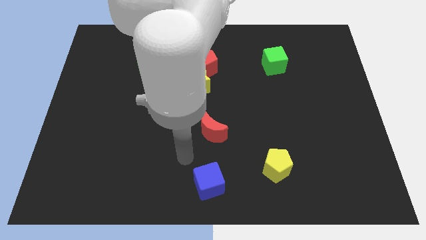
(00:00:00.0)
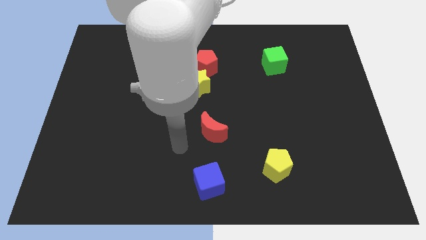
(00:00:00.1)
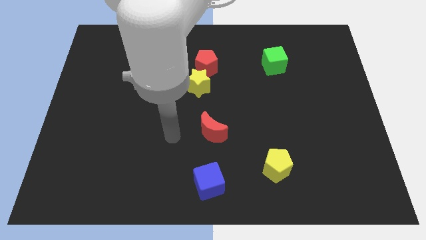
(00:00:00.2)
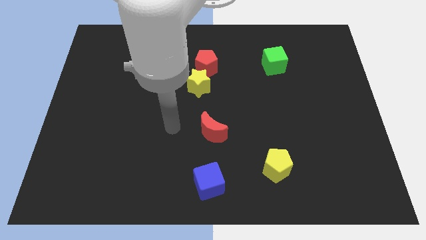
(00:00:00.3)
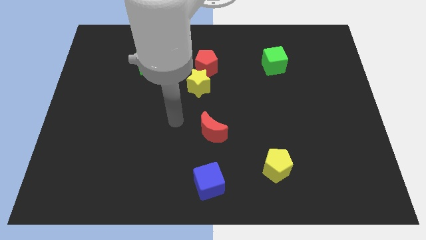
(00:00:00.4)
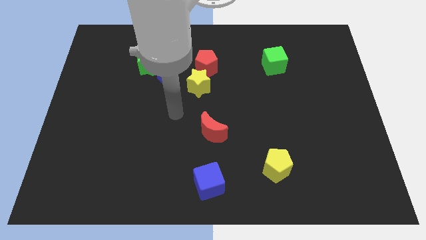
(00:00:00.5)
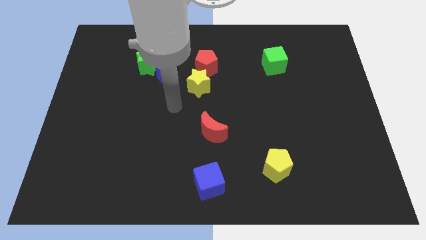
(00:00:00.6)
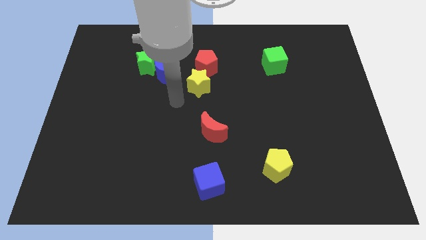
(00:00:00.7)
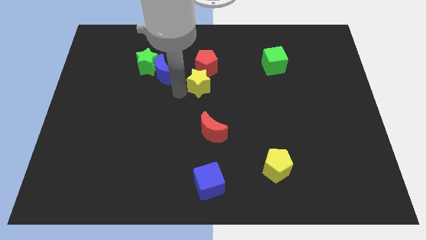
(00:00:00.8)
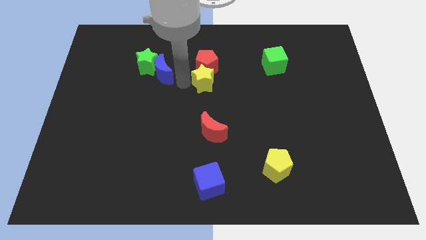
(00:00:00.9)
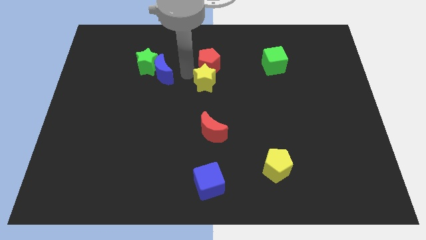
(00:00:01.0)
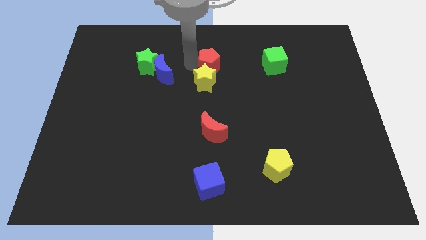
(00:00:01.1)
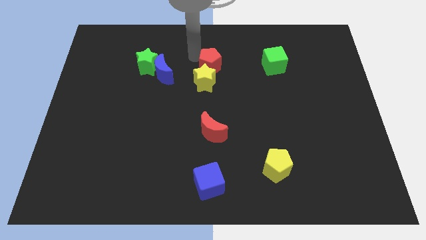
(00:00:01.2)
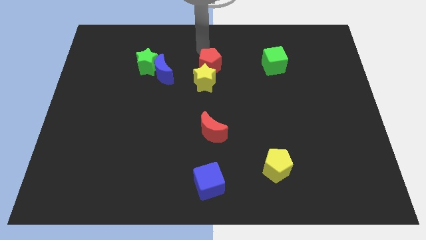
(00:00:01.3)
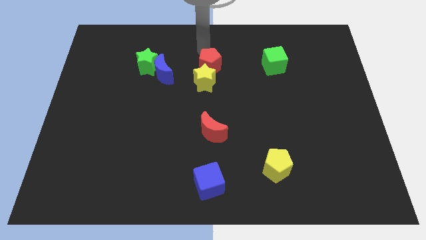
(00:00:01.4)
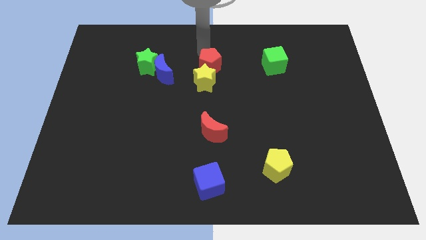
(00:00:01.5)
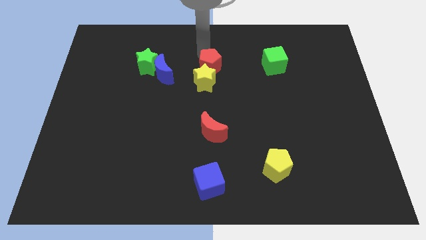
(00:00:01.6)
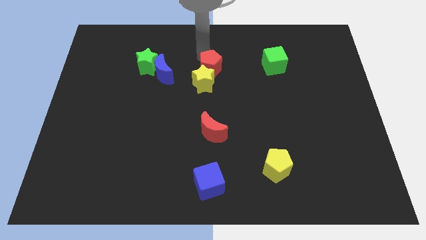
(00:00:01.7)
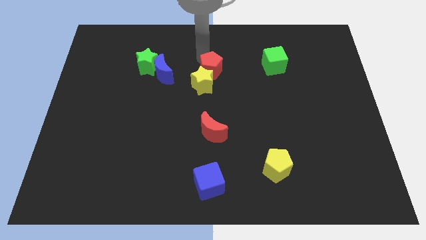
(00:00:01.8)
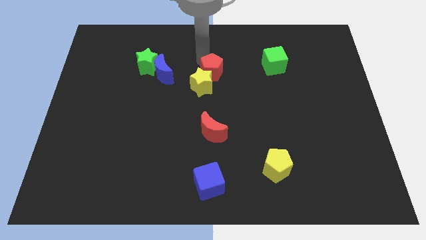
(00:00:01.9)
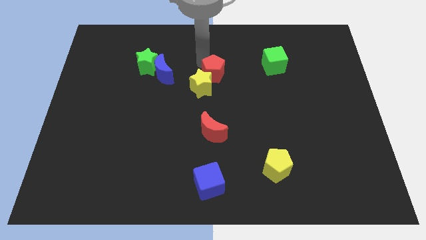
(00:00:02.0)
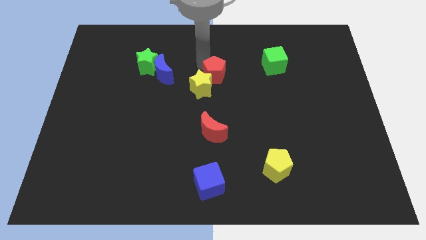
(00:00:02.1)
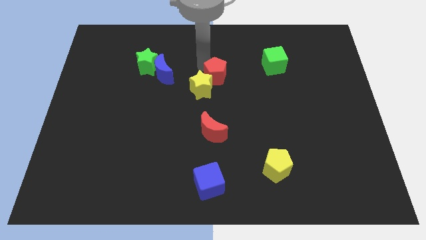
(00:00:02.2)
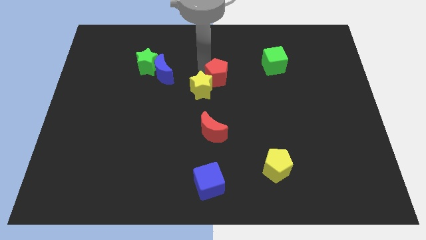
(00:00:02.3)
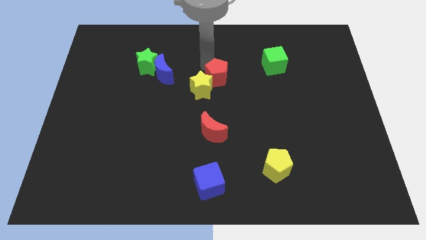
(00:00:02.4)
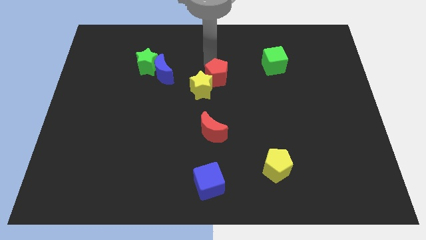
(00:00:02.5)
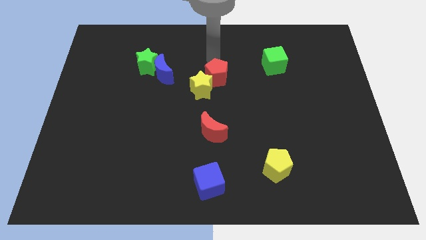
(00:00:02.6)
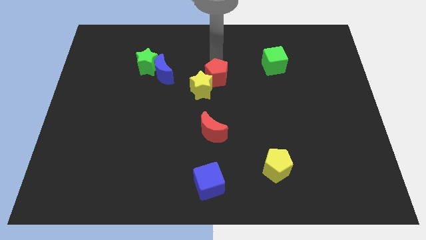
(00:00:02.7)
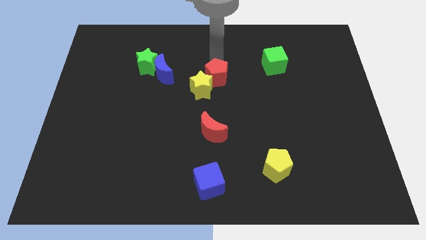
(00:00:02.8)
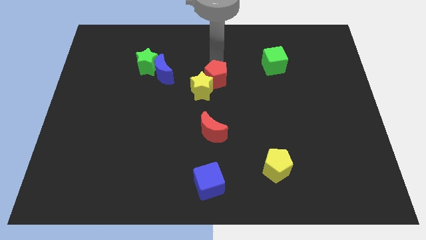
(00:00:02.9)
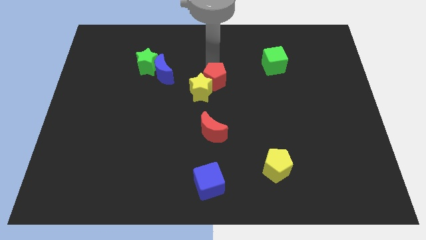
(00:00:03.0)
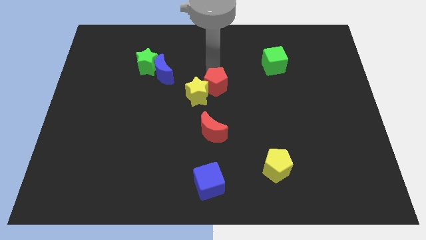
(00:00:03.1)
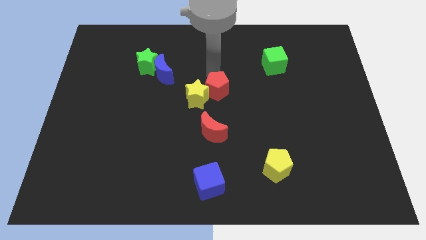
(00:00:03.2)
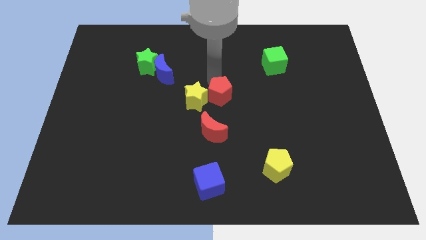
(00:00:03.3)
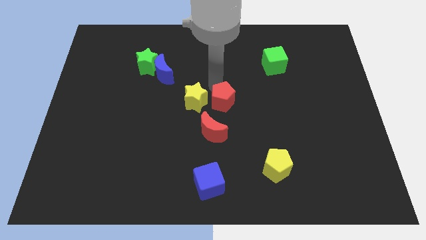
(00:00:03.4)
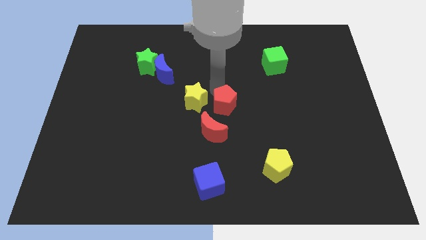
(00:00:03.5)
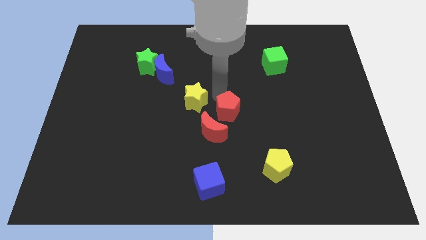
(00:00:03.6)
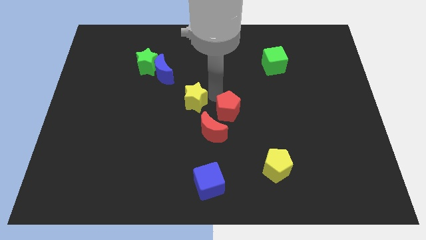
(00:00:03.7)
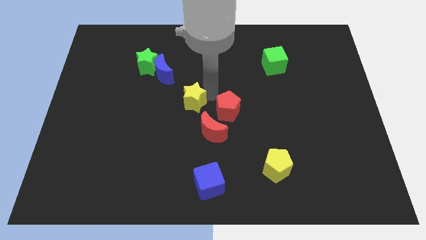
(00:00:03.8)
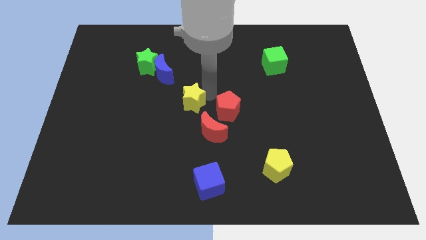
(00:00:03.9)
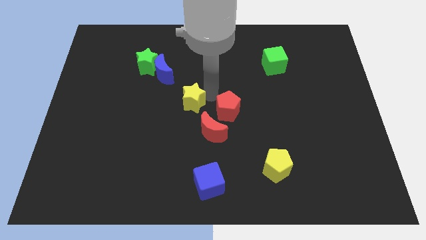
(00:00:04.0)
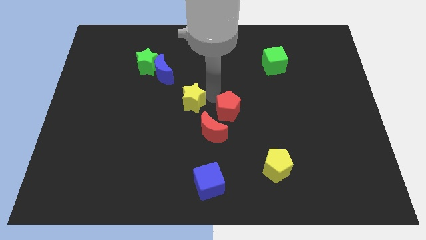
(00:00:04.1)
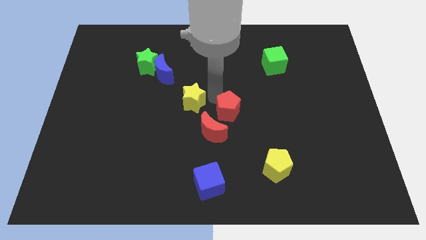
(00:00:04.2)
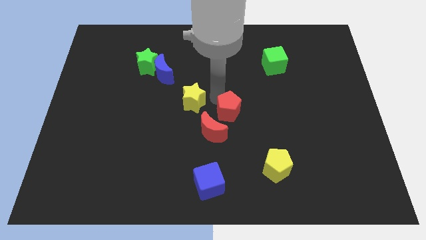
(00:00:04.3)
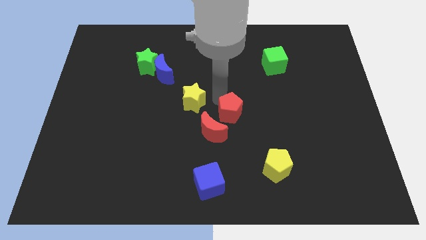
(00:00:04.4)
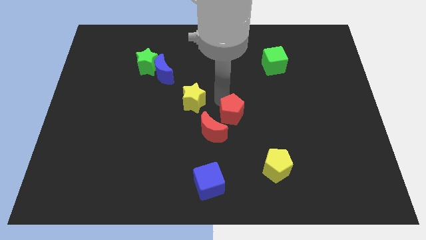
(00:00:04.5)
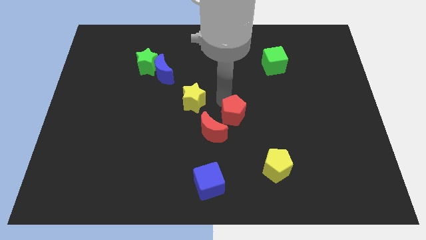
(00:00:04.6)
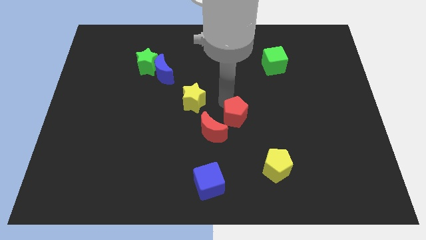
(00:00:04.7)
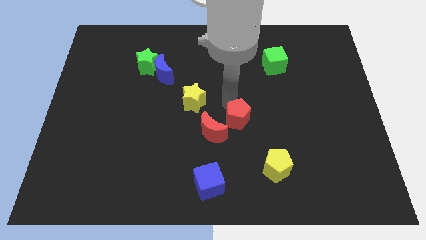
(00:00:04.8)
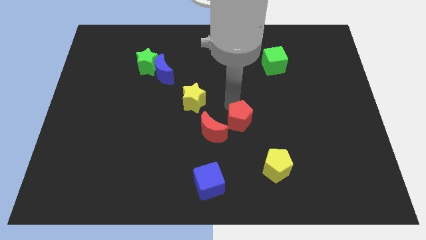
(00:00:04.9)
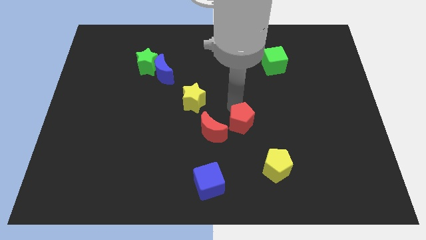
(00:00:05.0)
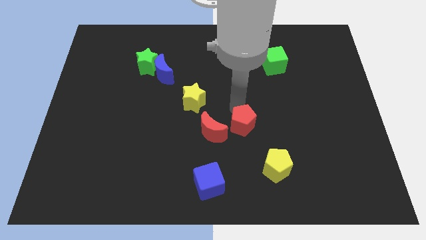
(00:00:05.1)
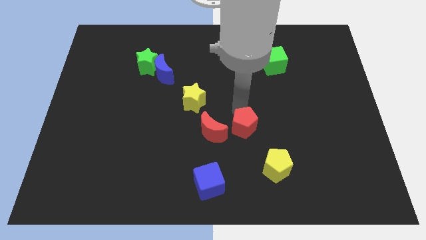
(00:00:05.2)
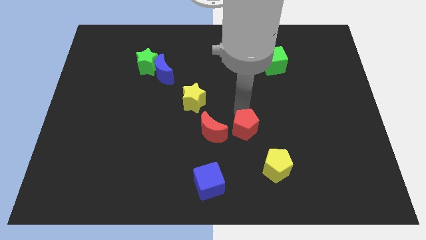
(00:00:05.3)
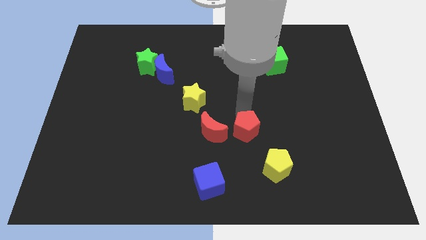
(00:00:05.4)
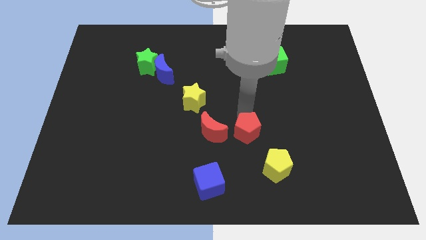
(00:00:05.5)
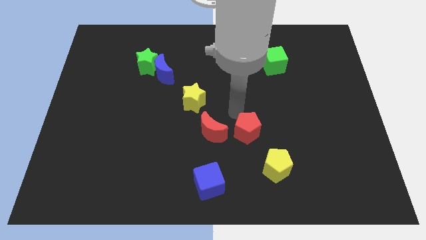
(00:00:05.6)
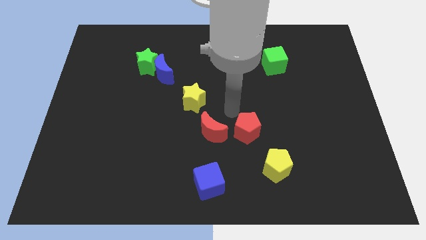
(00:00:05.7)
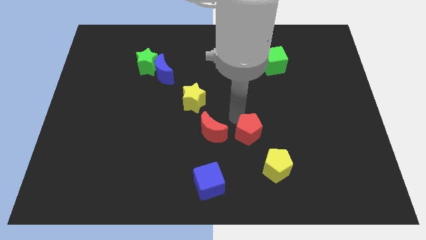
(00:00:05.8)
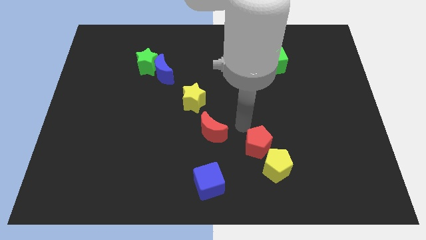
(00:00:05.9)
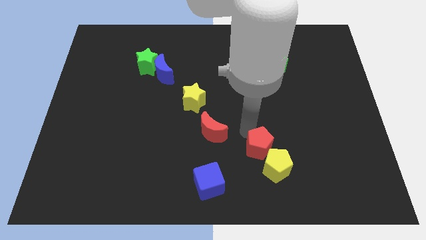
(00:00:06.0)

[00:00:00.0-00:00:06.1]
slide the red pentagon towards the yellow pentagon

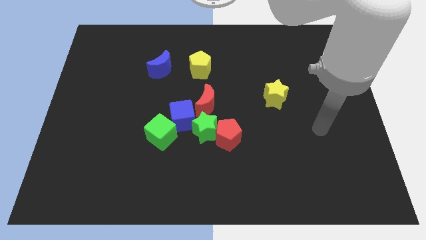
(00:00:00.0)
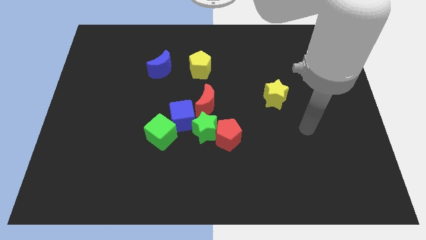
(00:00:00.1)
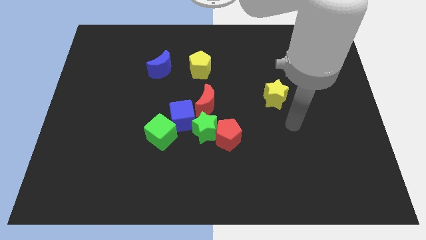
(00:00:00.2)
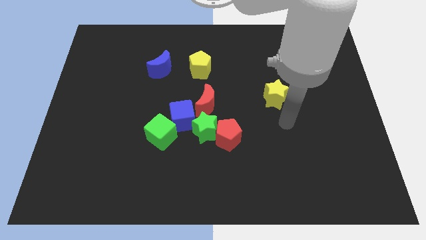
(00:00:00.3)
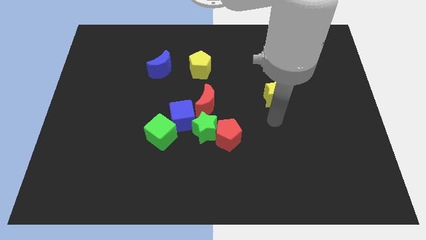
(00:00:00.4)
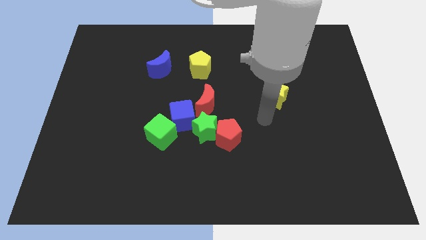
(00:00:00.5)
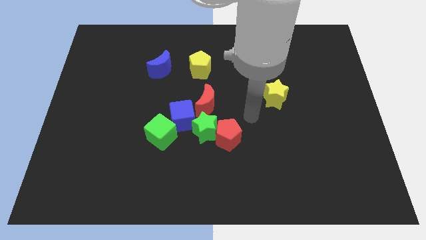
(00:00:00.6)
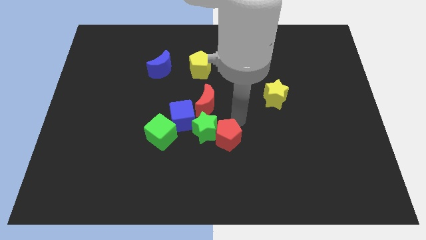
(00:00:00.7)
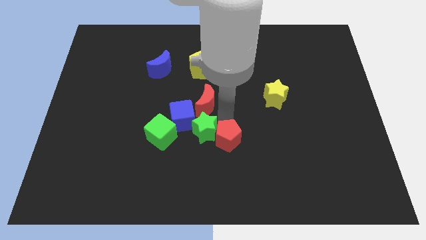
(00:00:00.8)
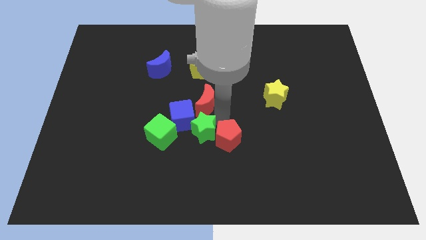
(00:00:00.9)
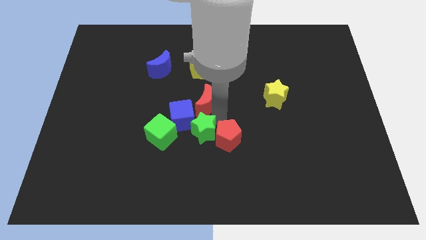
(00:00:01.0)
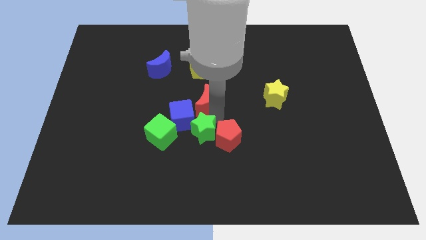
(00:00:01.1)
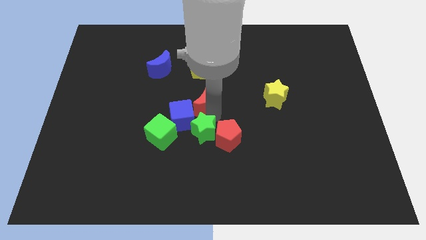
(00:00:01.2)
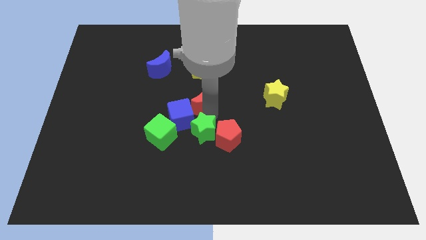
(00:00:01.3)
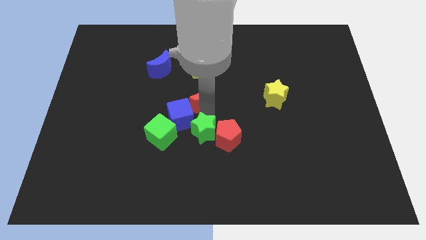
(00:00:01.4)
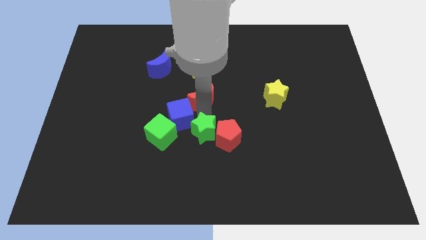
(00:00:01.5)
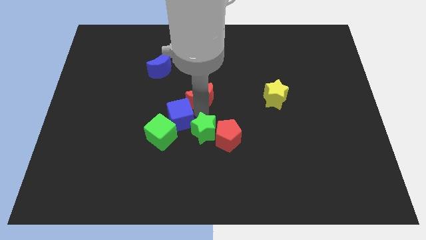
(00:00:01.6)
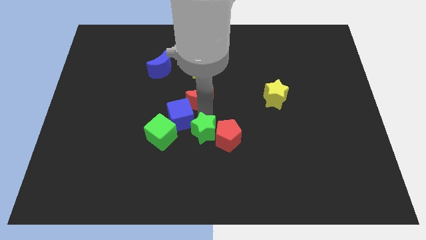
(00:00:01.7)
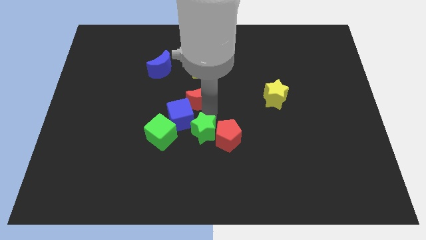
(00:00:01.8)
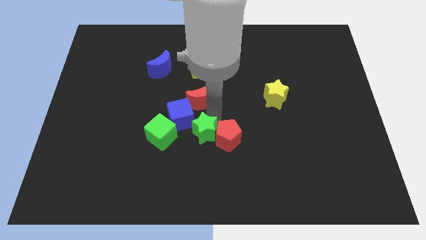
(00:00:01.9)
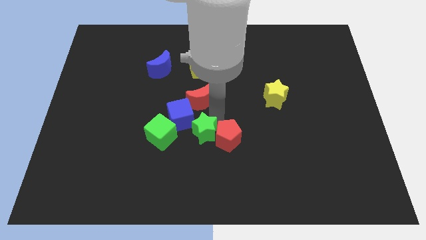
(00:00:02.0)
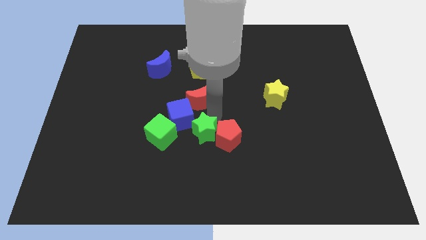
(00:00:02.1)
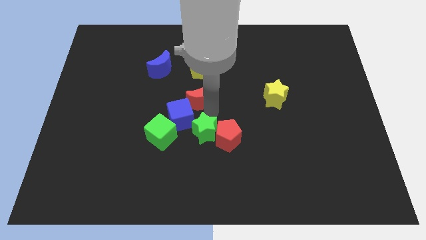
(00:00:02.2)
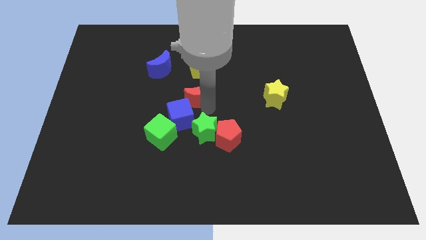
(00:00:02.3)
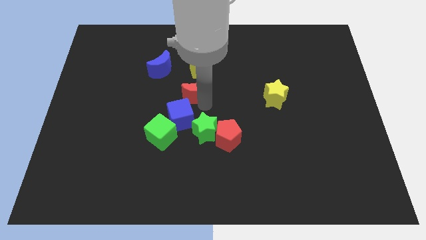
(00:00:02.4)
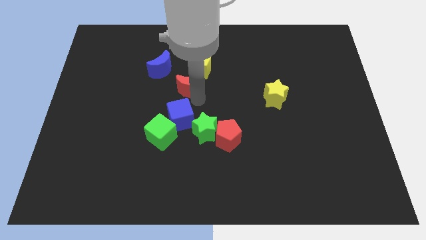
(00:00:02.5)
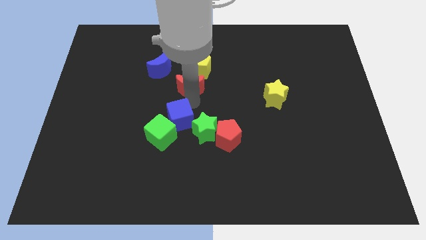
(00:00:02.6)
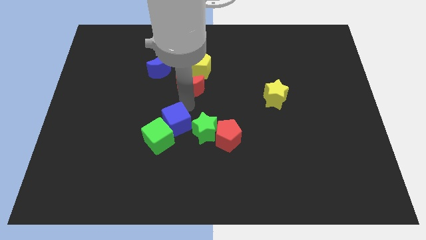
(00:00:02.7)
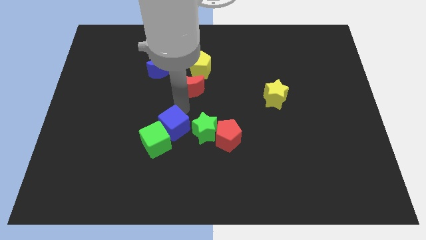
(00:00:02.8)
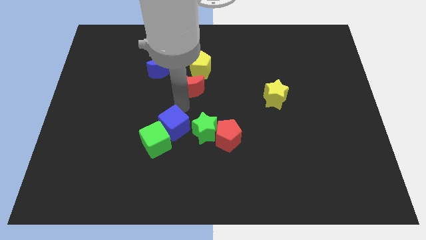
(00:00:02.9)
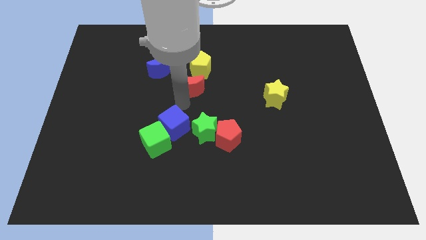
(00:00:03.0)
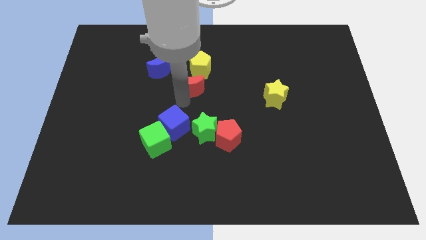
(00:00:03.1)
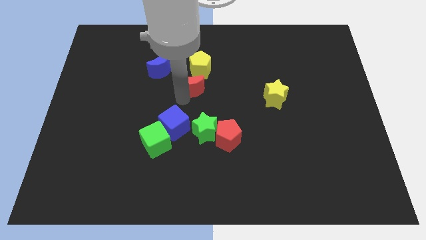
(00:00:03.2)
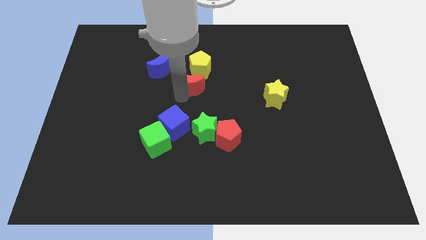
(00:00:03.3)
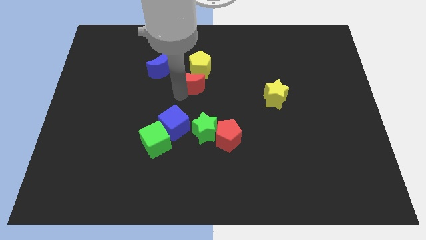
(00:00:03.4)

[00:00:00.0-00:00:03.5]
push the red moon close to the yellow pentagon
